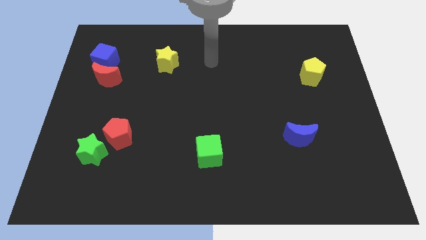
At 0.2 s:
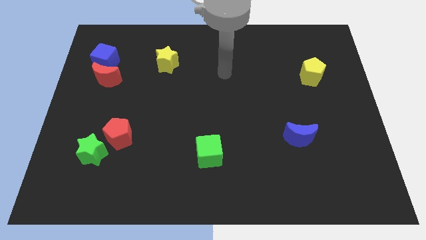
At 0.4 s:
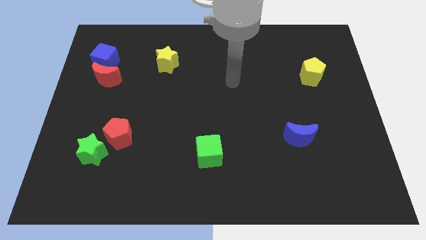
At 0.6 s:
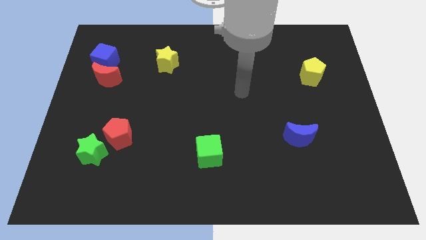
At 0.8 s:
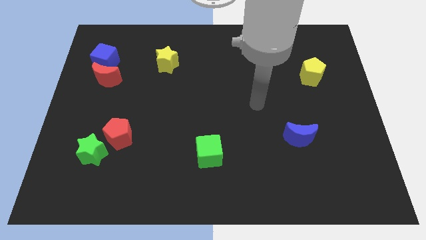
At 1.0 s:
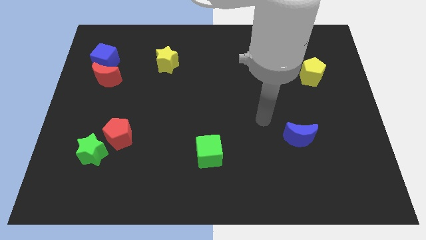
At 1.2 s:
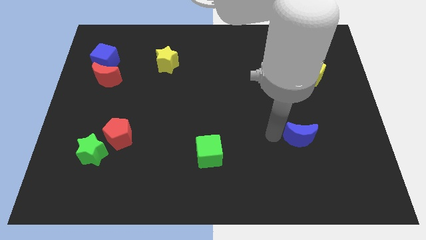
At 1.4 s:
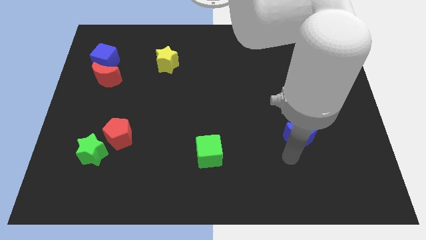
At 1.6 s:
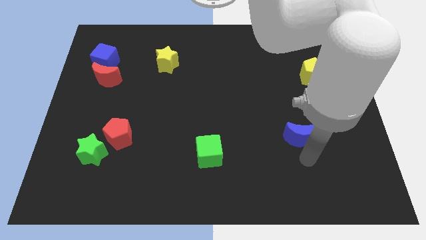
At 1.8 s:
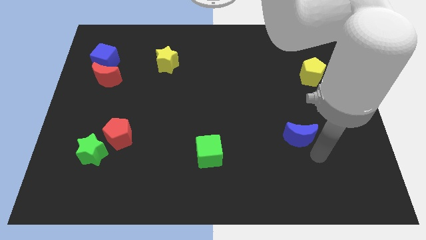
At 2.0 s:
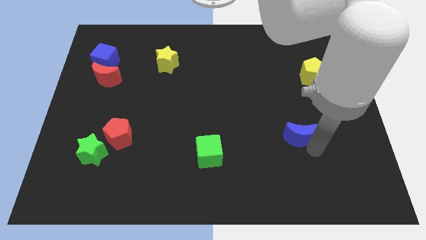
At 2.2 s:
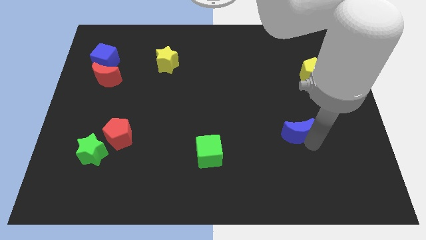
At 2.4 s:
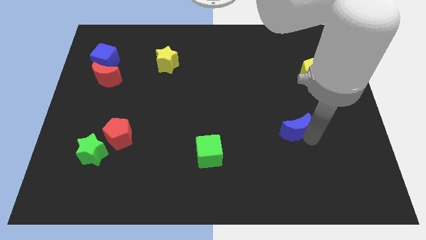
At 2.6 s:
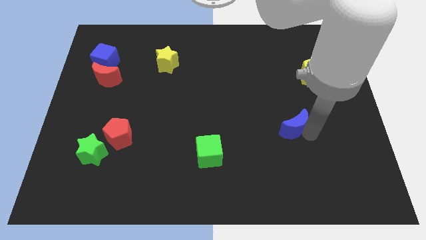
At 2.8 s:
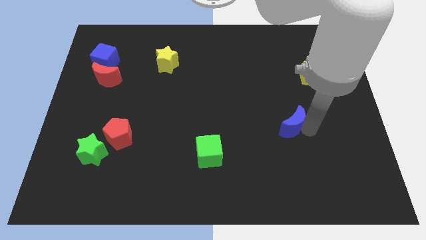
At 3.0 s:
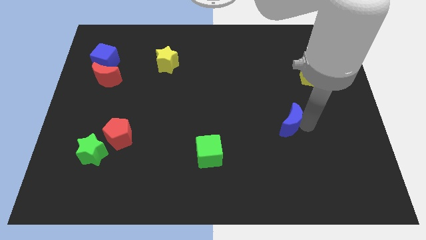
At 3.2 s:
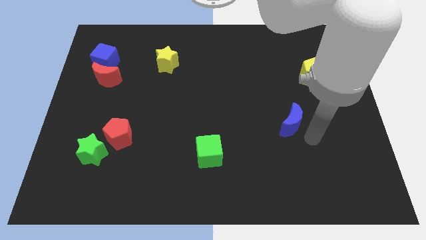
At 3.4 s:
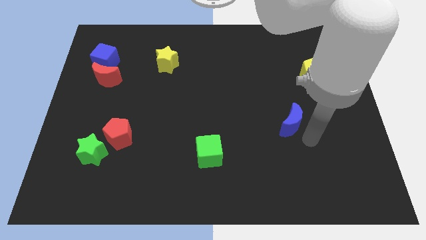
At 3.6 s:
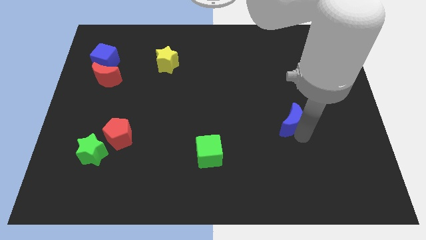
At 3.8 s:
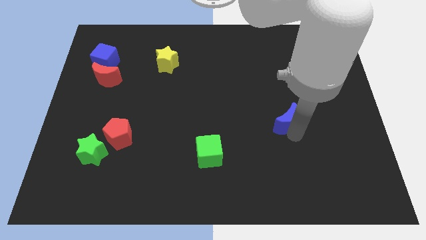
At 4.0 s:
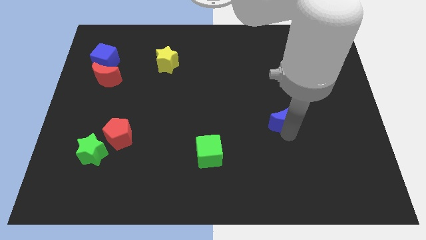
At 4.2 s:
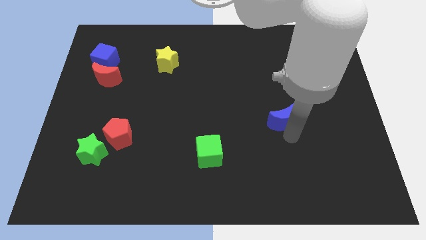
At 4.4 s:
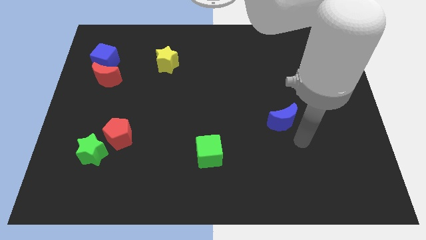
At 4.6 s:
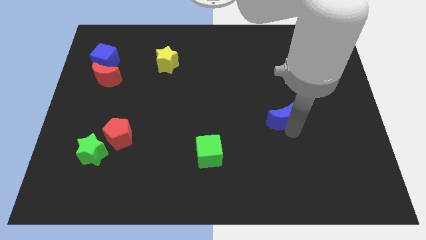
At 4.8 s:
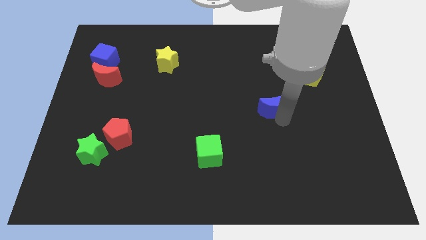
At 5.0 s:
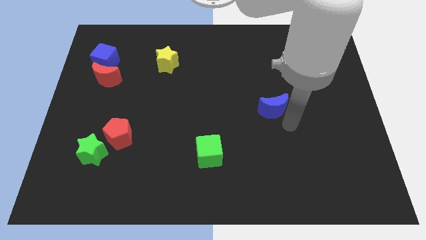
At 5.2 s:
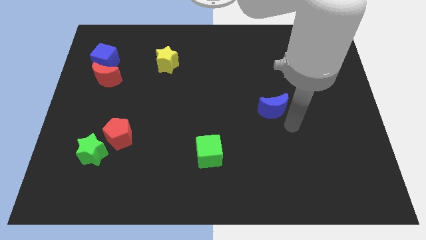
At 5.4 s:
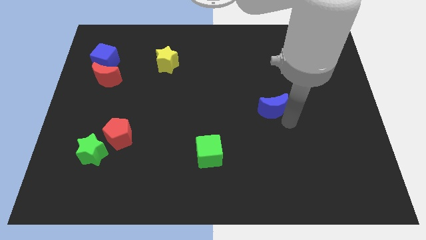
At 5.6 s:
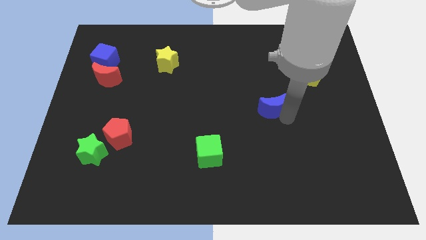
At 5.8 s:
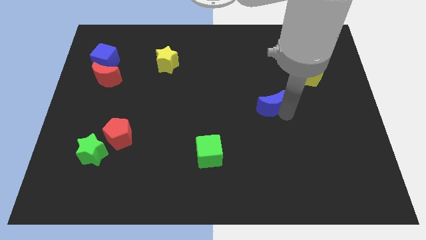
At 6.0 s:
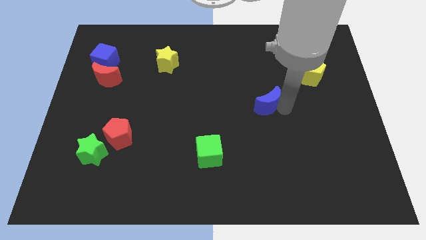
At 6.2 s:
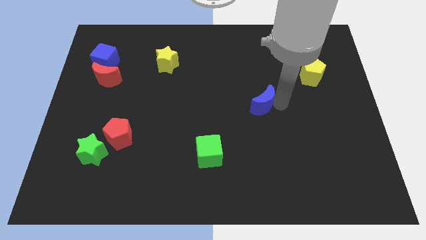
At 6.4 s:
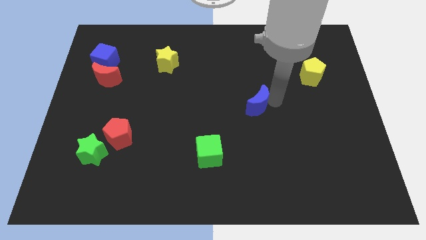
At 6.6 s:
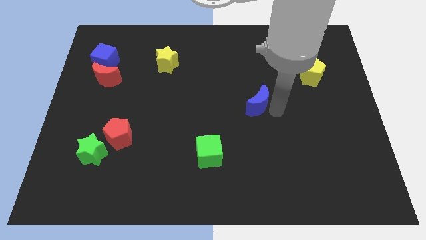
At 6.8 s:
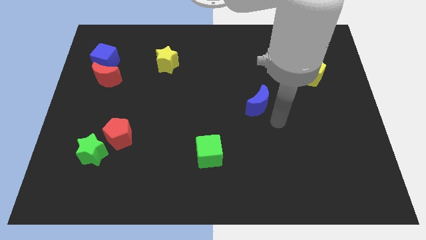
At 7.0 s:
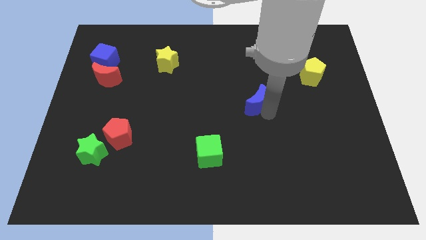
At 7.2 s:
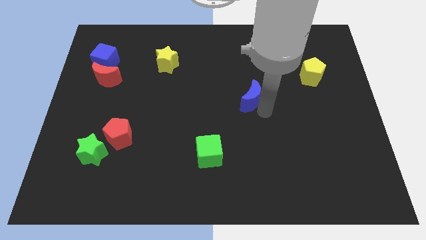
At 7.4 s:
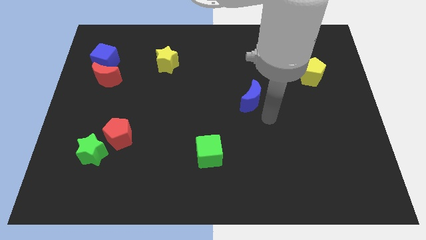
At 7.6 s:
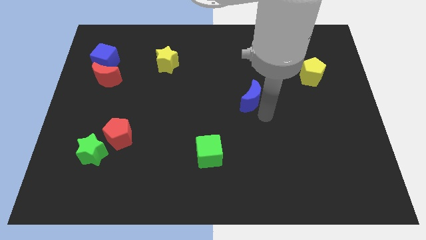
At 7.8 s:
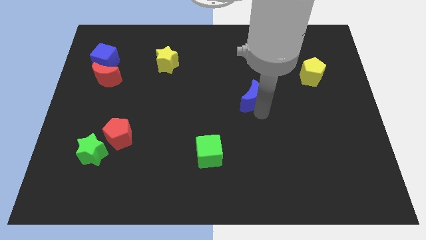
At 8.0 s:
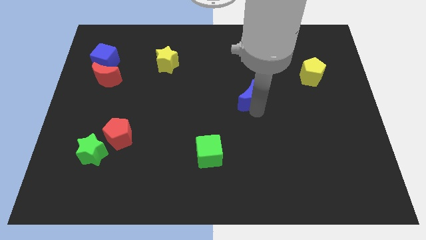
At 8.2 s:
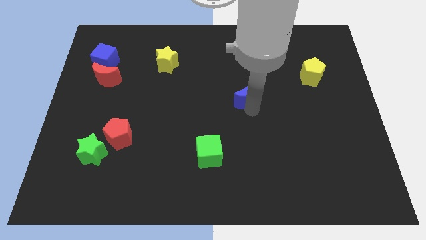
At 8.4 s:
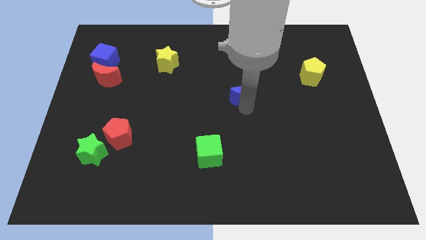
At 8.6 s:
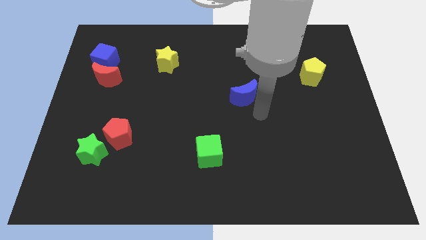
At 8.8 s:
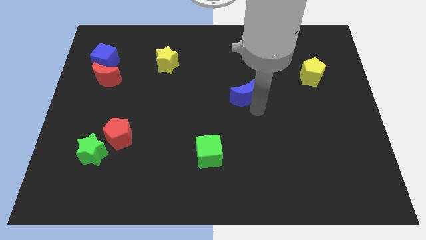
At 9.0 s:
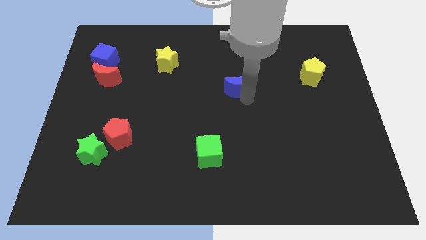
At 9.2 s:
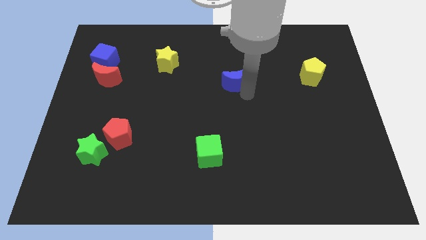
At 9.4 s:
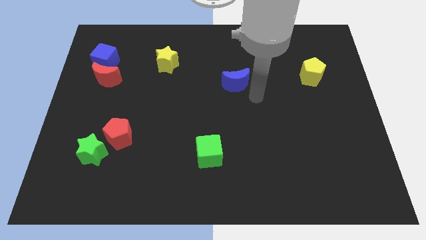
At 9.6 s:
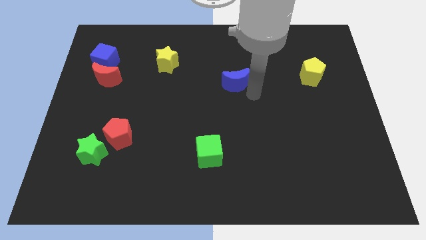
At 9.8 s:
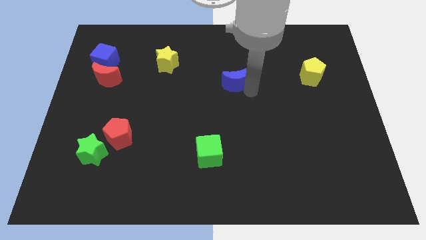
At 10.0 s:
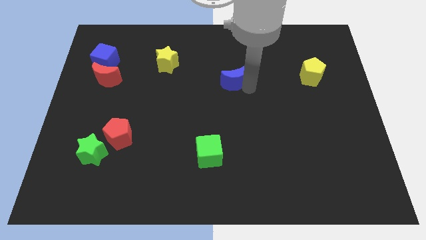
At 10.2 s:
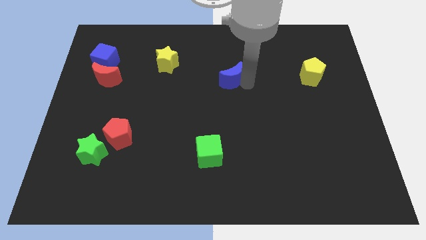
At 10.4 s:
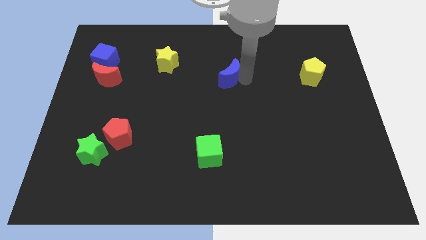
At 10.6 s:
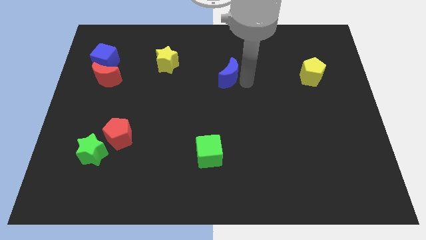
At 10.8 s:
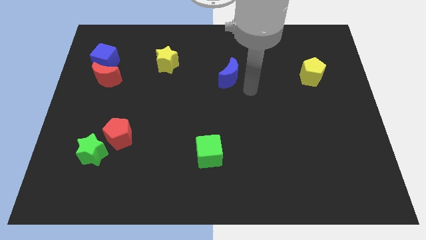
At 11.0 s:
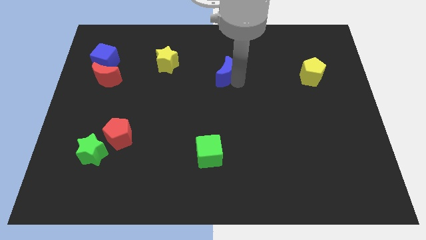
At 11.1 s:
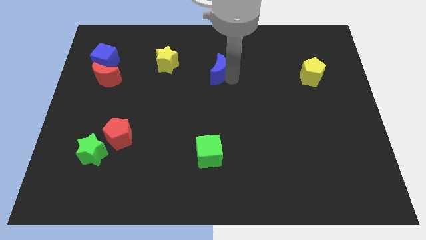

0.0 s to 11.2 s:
slide the blue moon just right of the yellow star

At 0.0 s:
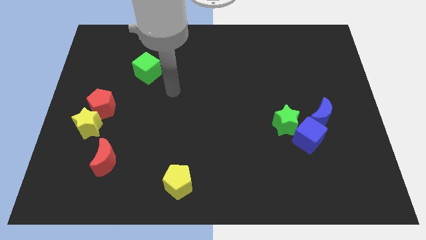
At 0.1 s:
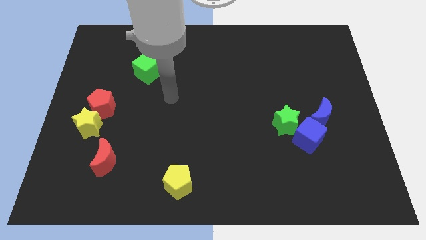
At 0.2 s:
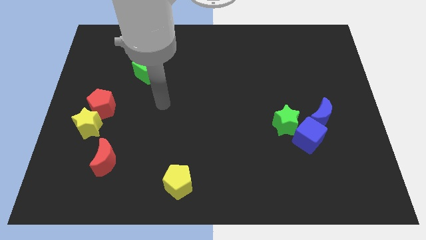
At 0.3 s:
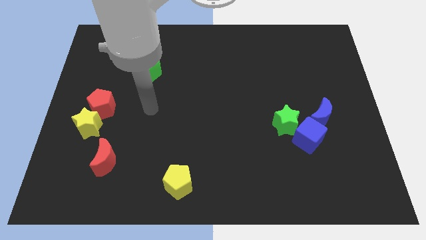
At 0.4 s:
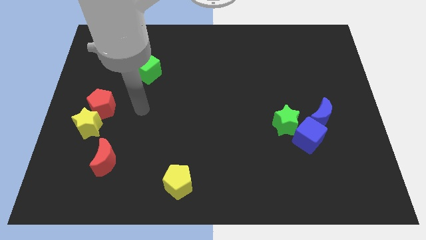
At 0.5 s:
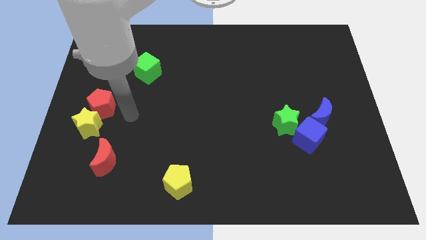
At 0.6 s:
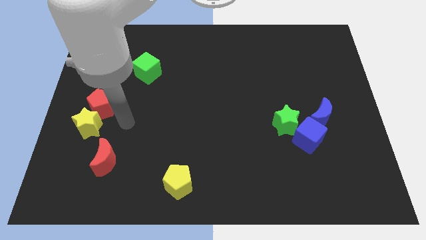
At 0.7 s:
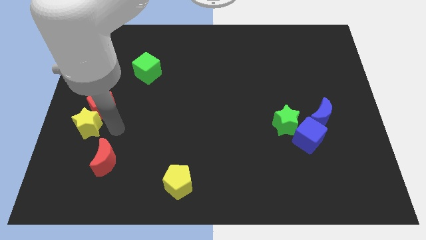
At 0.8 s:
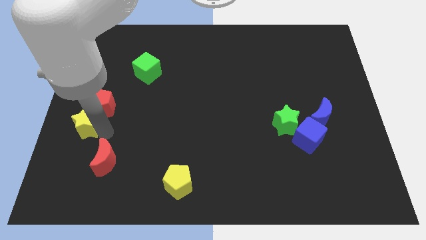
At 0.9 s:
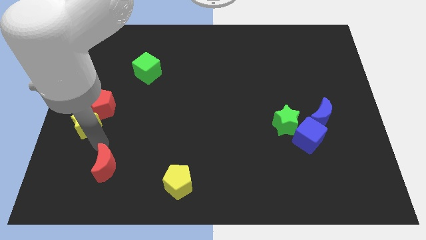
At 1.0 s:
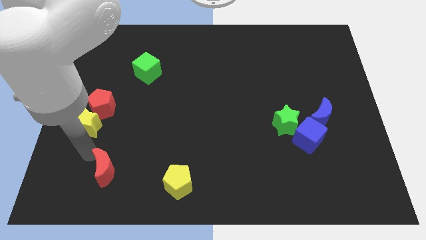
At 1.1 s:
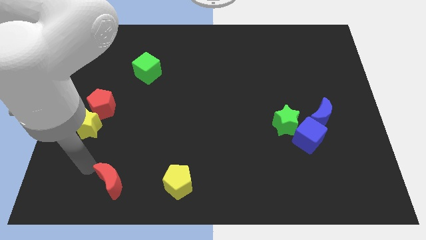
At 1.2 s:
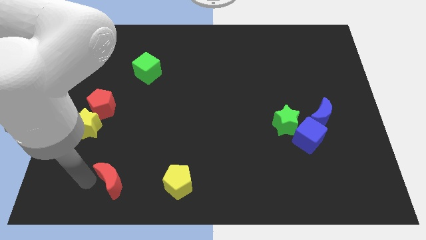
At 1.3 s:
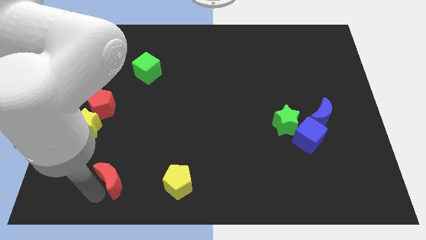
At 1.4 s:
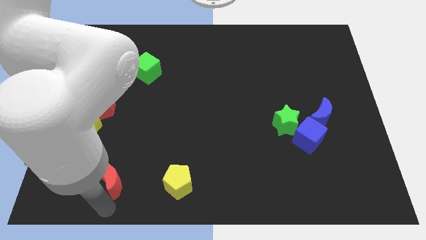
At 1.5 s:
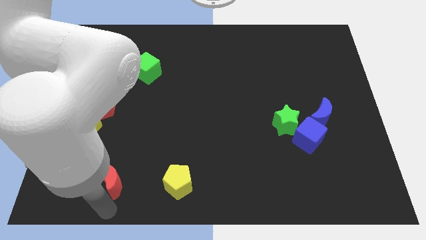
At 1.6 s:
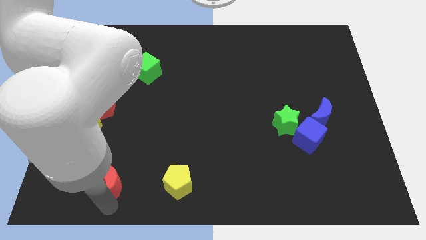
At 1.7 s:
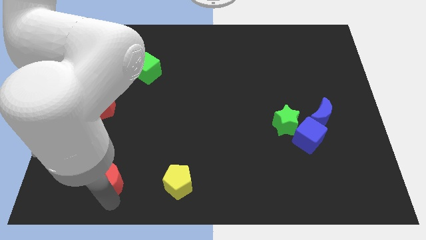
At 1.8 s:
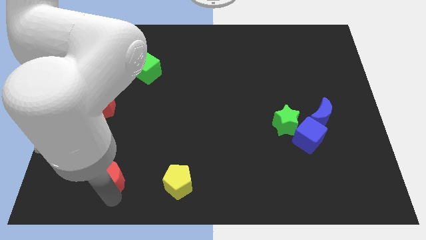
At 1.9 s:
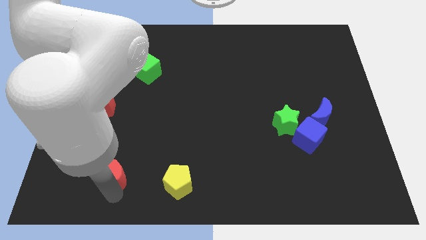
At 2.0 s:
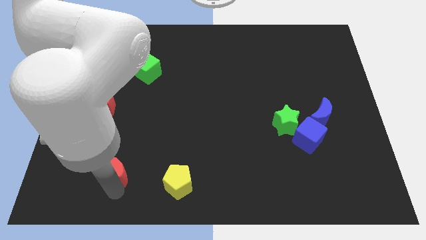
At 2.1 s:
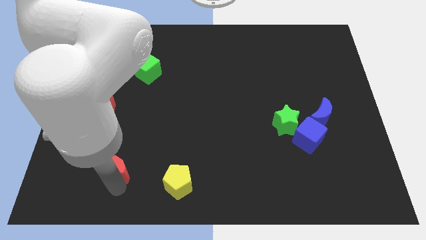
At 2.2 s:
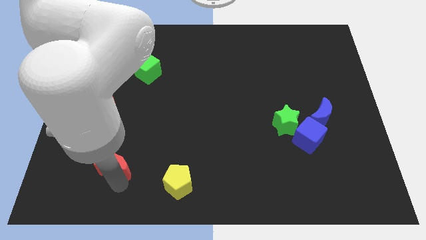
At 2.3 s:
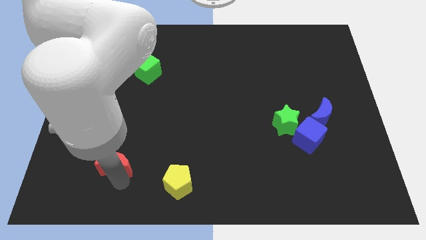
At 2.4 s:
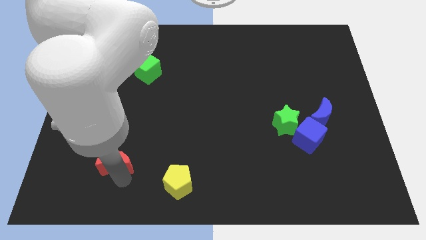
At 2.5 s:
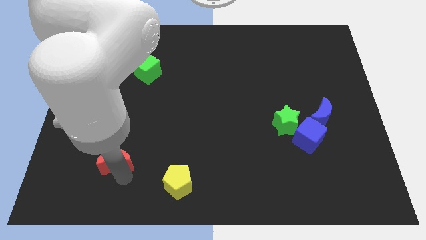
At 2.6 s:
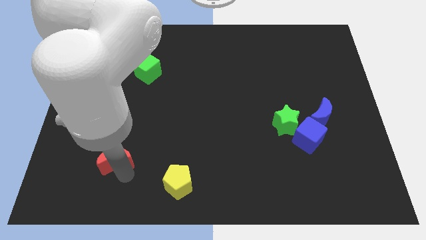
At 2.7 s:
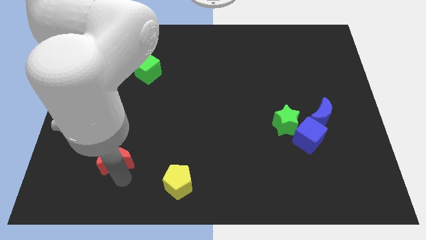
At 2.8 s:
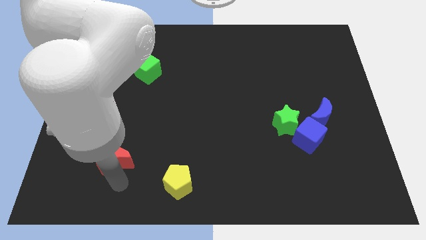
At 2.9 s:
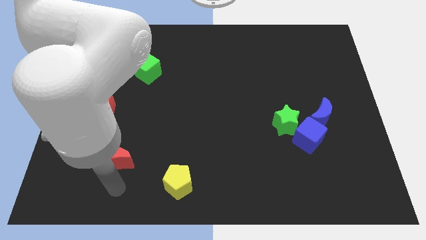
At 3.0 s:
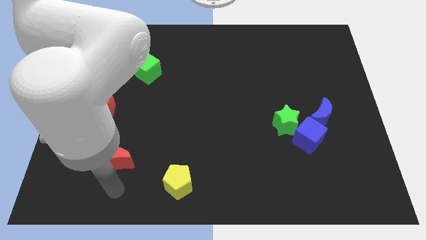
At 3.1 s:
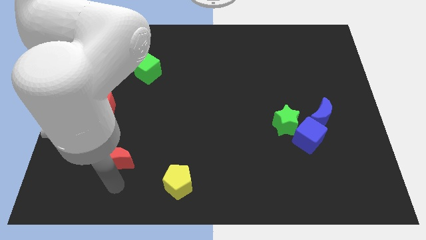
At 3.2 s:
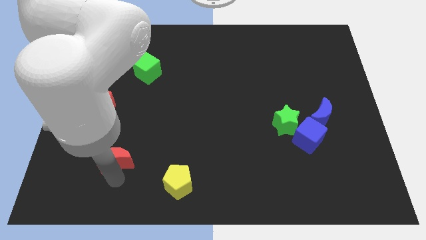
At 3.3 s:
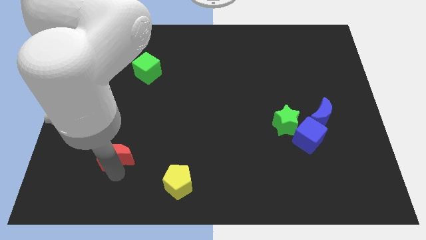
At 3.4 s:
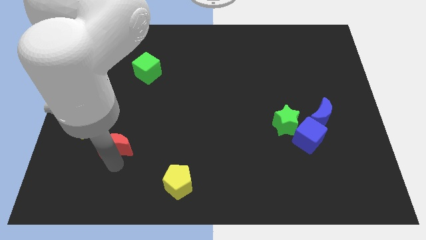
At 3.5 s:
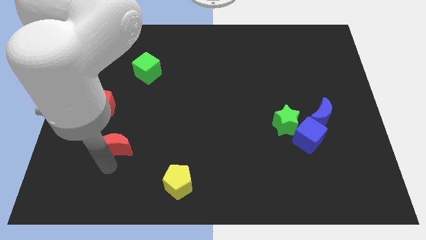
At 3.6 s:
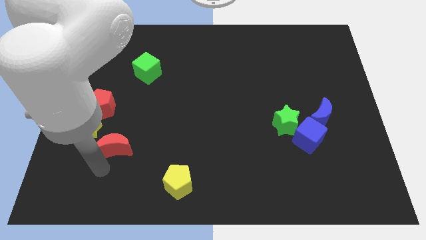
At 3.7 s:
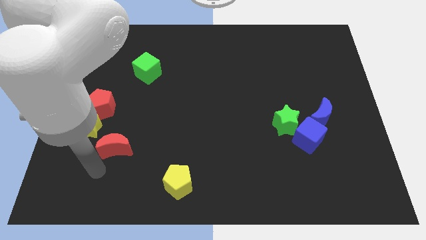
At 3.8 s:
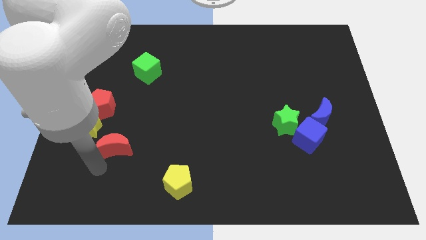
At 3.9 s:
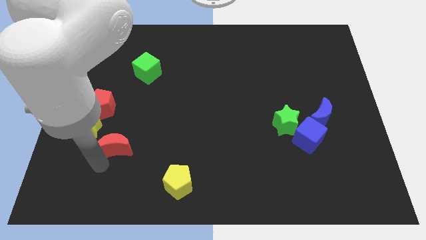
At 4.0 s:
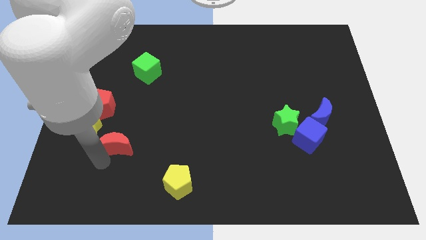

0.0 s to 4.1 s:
slide the red moon to the right of the yellow star
